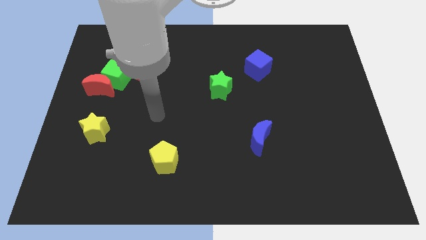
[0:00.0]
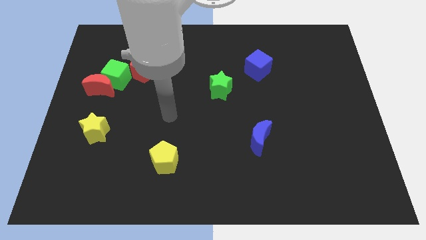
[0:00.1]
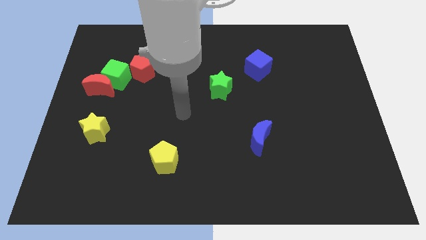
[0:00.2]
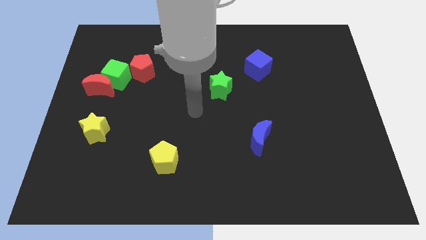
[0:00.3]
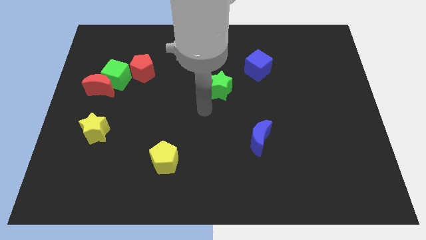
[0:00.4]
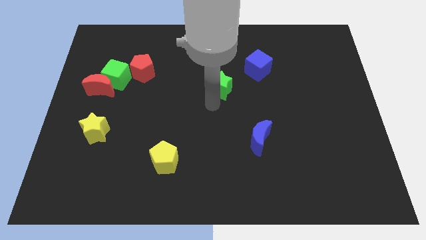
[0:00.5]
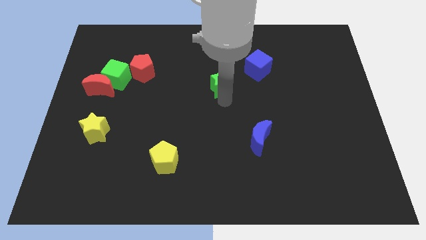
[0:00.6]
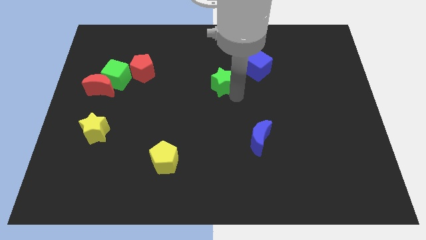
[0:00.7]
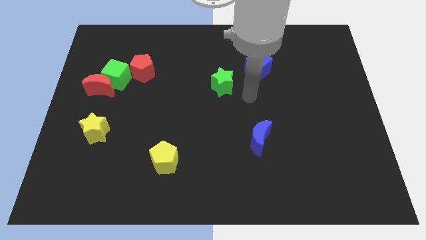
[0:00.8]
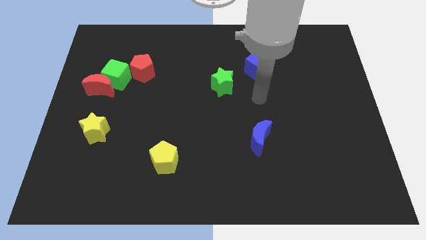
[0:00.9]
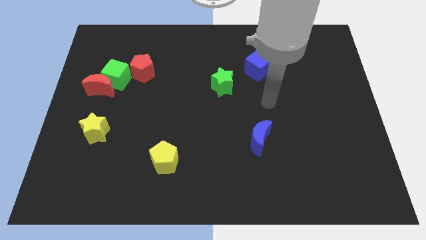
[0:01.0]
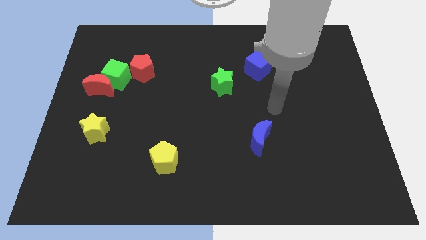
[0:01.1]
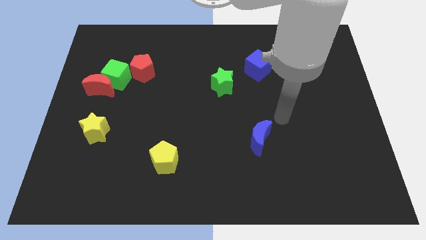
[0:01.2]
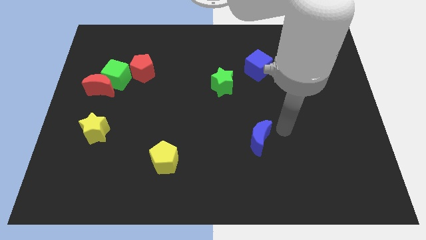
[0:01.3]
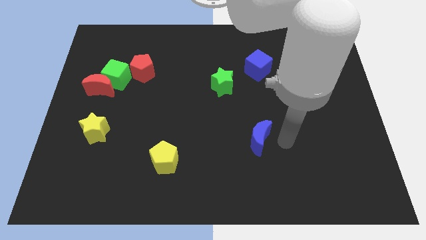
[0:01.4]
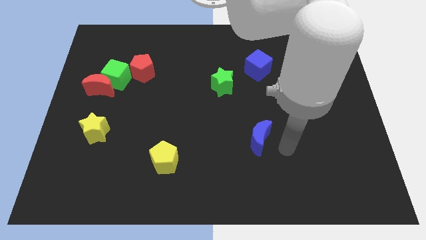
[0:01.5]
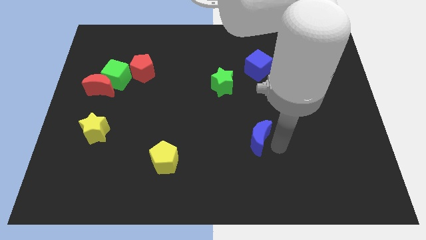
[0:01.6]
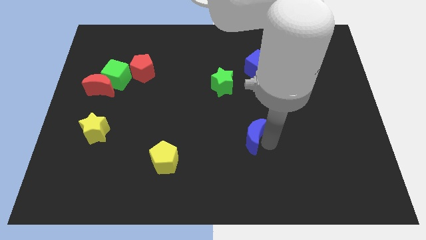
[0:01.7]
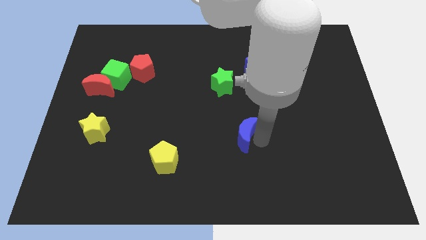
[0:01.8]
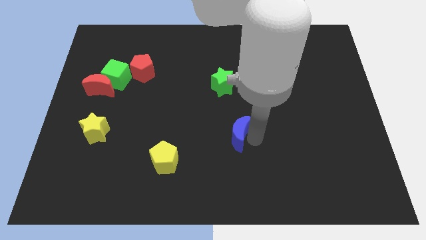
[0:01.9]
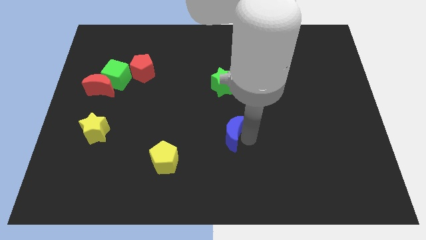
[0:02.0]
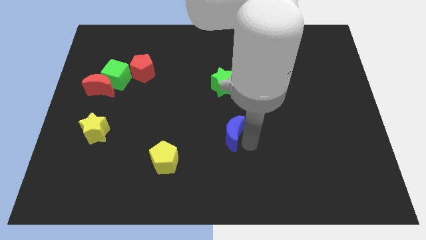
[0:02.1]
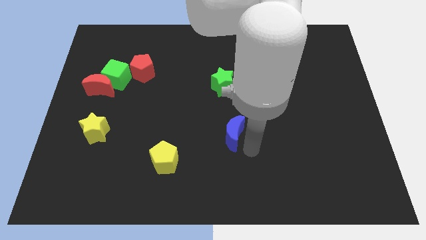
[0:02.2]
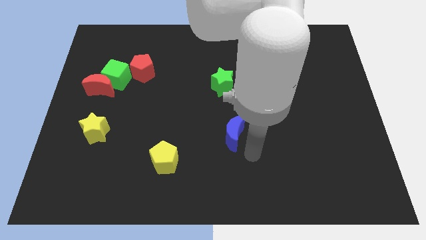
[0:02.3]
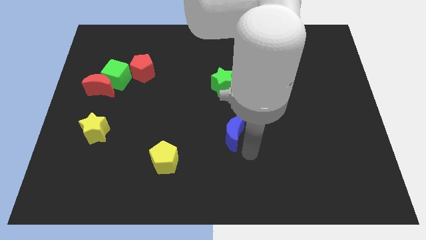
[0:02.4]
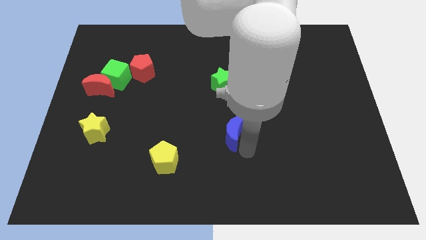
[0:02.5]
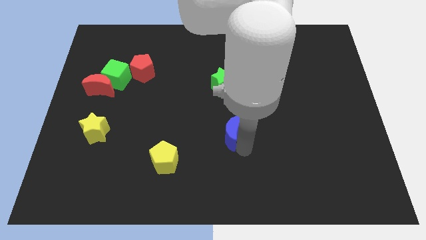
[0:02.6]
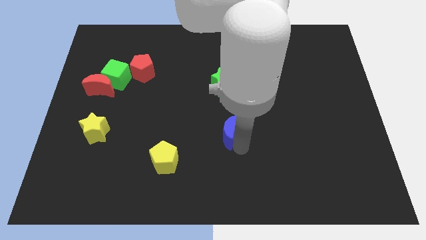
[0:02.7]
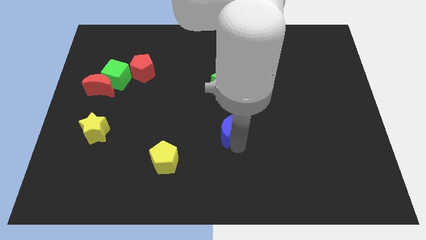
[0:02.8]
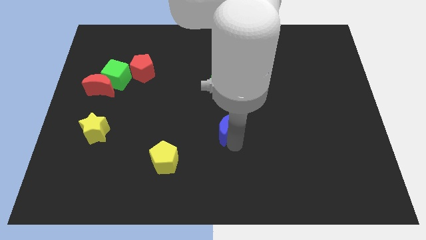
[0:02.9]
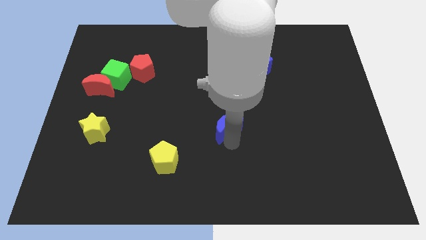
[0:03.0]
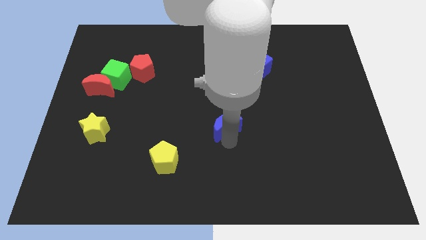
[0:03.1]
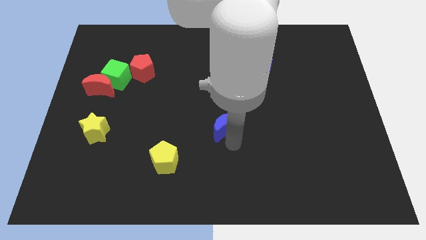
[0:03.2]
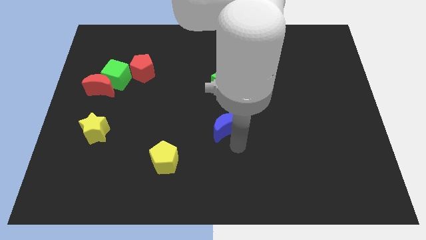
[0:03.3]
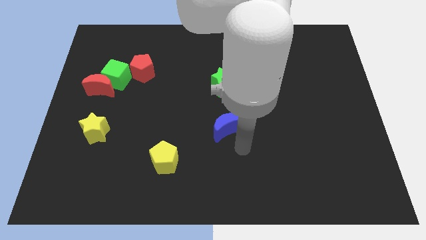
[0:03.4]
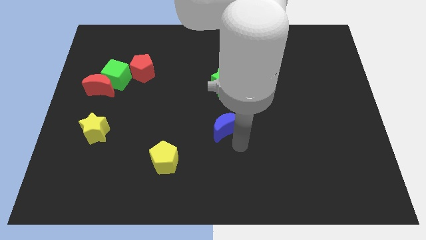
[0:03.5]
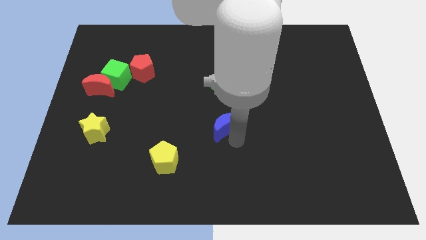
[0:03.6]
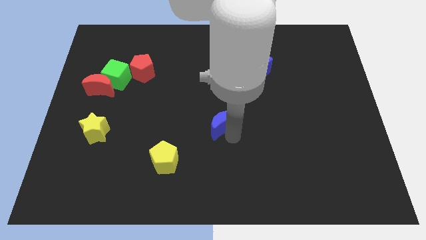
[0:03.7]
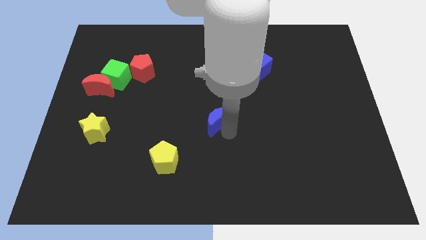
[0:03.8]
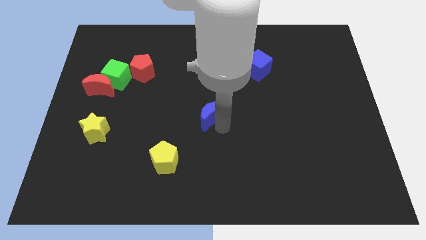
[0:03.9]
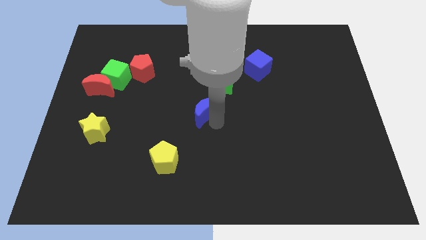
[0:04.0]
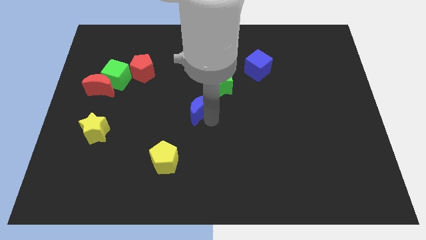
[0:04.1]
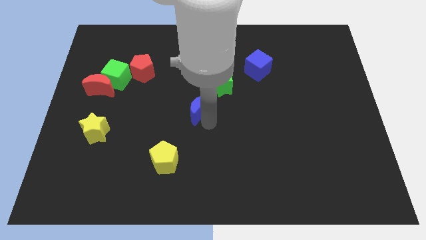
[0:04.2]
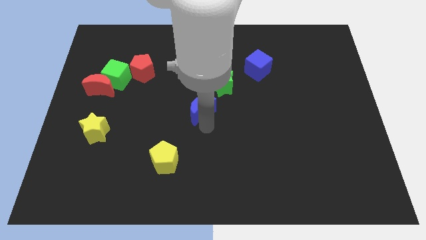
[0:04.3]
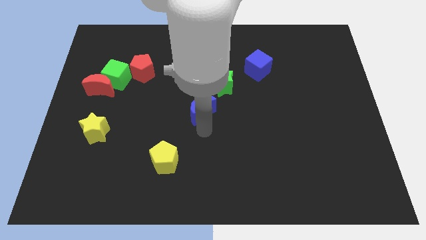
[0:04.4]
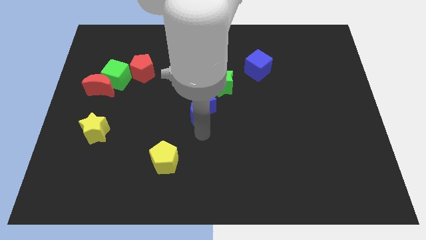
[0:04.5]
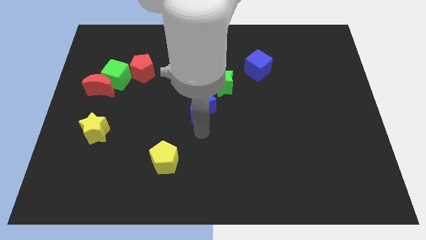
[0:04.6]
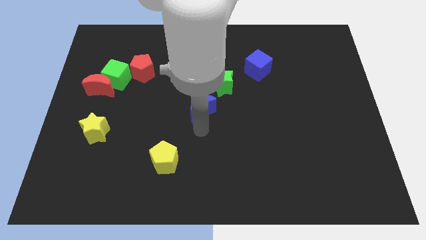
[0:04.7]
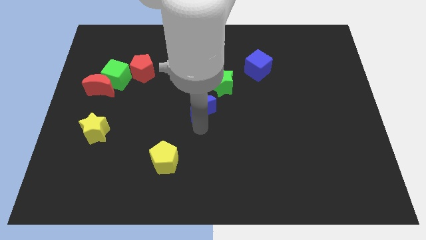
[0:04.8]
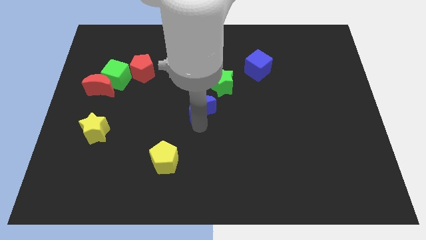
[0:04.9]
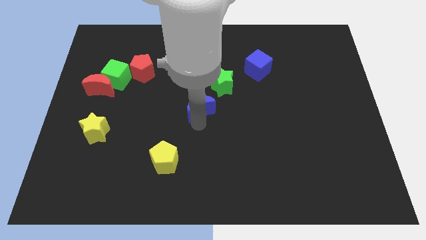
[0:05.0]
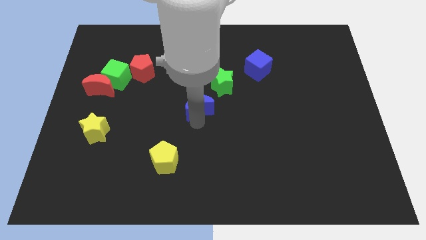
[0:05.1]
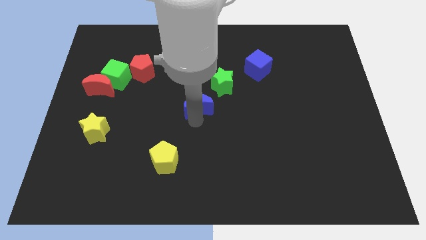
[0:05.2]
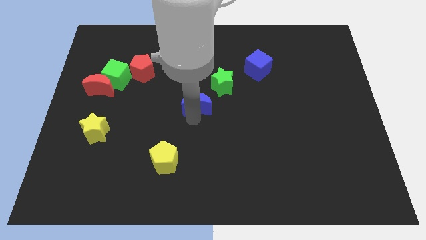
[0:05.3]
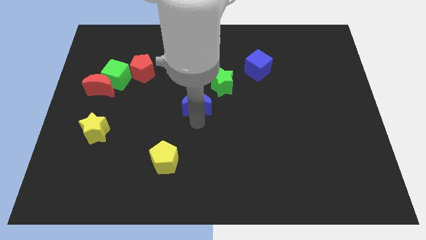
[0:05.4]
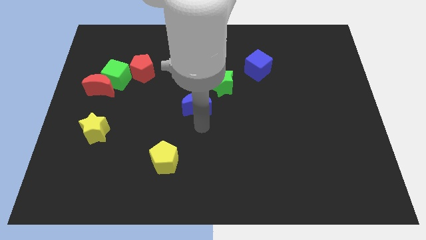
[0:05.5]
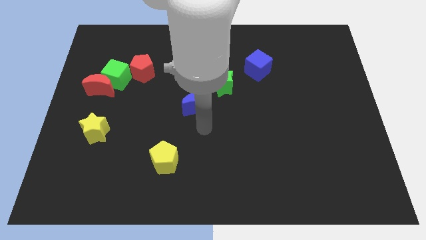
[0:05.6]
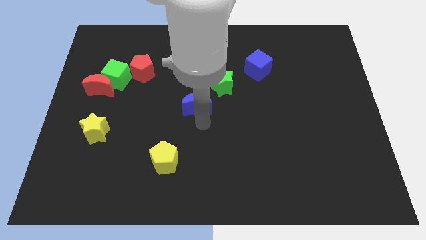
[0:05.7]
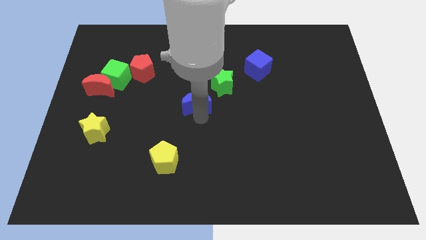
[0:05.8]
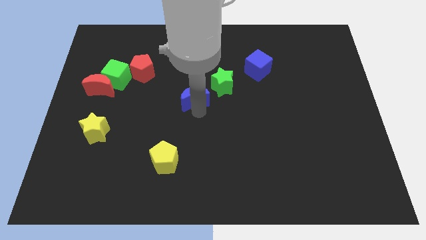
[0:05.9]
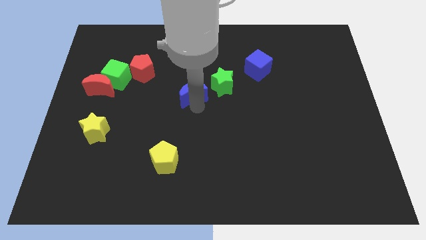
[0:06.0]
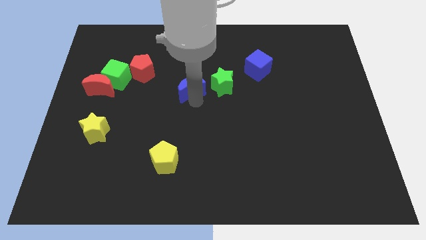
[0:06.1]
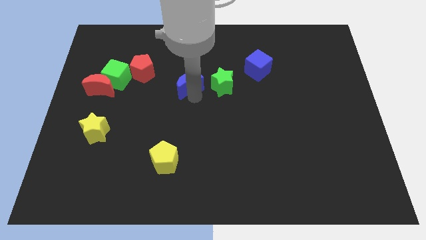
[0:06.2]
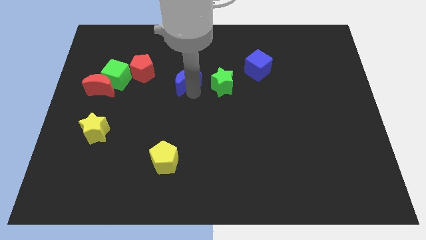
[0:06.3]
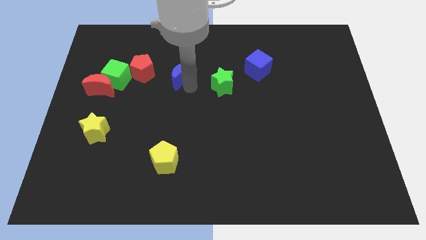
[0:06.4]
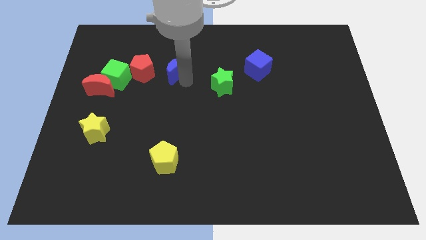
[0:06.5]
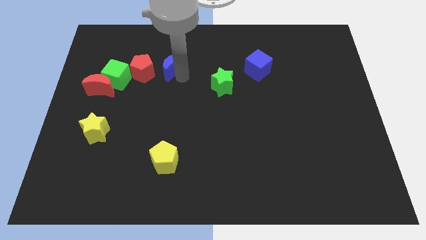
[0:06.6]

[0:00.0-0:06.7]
slide the blue moon diagonally up and to the right of the red pentagon
